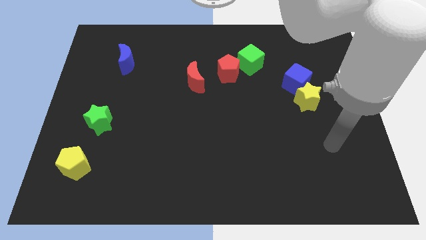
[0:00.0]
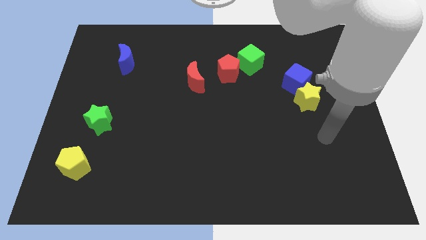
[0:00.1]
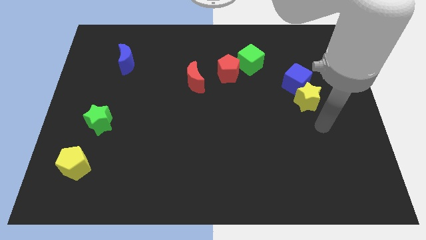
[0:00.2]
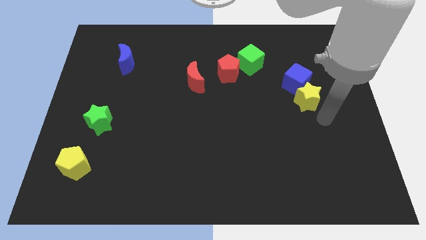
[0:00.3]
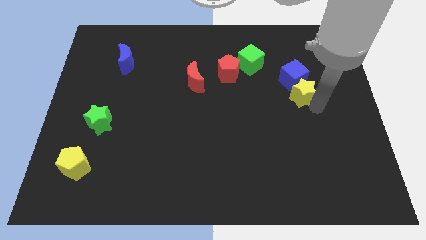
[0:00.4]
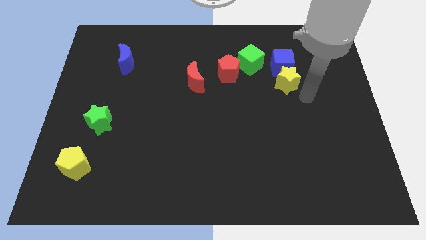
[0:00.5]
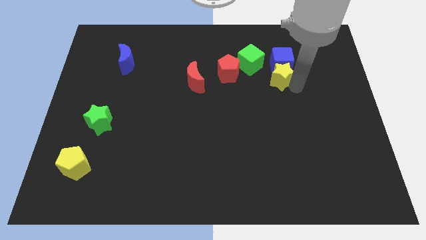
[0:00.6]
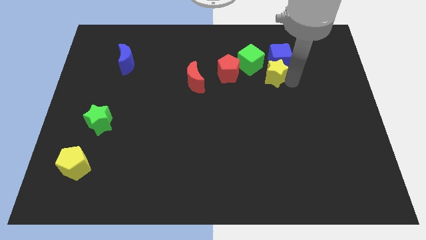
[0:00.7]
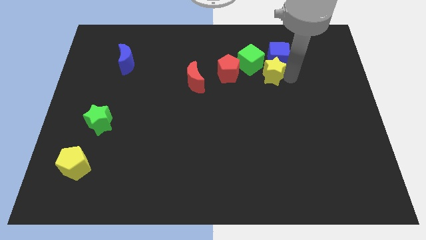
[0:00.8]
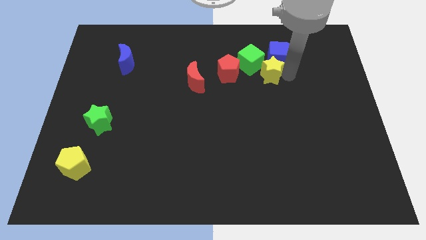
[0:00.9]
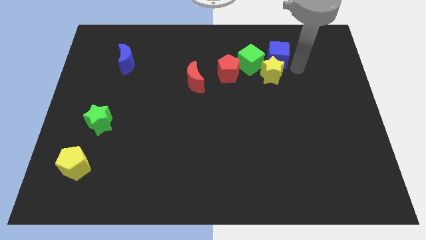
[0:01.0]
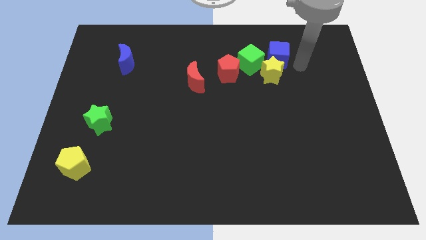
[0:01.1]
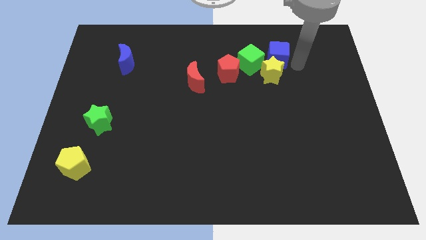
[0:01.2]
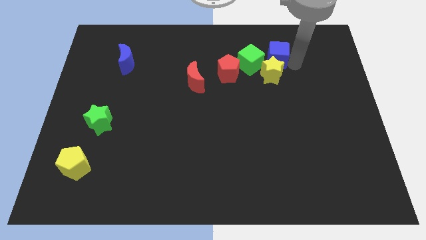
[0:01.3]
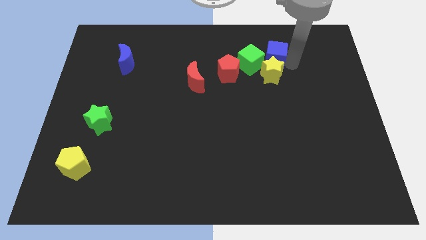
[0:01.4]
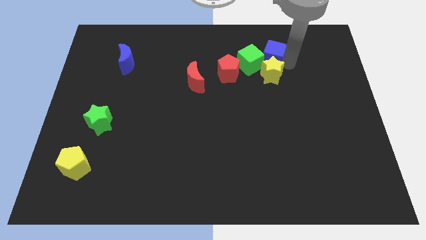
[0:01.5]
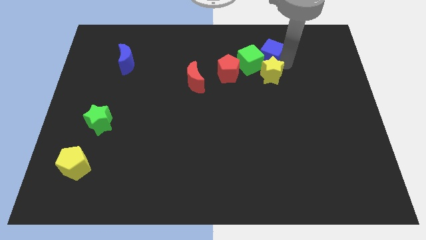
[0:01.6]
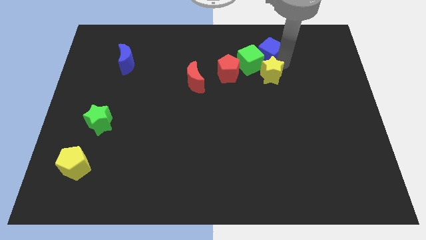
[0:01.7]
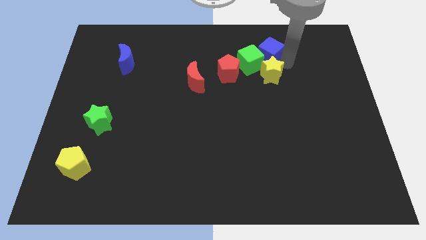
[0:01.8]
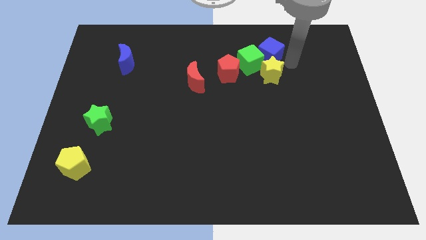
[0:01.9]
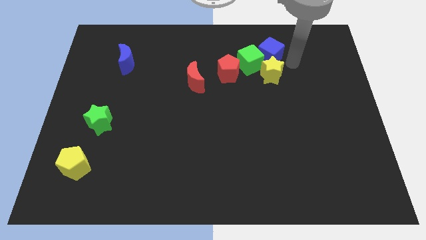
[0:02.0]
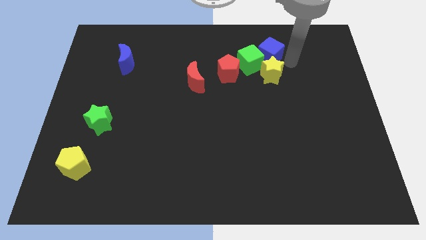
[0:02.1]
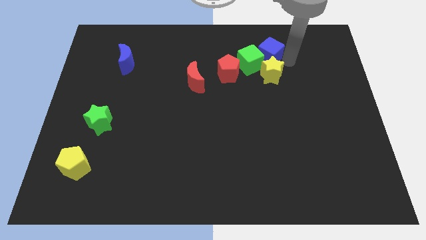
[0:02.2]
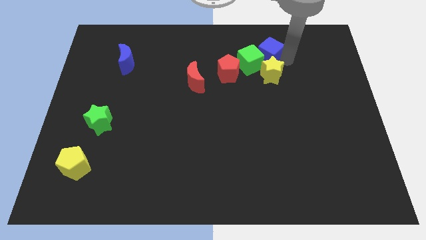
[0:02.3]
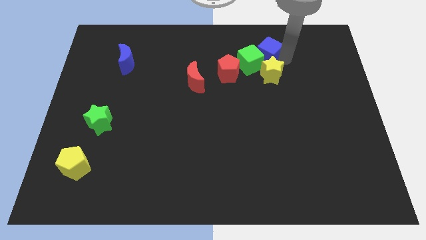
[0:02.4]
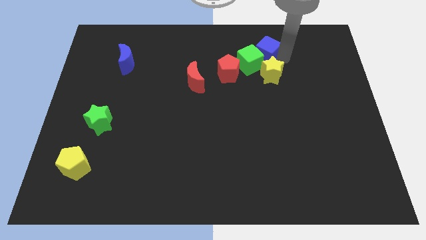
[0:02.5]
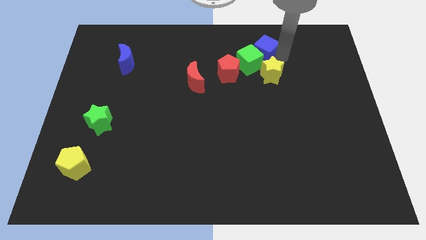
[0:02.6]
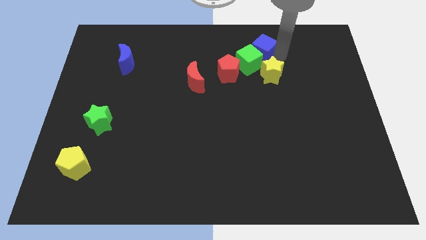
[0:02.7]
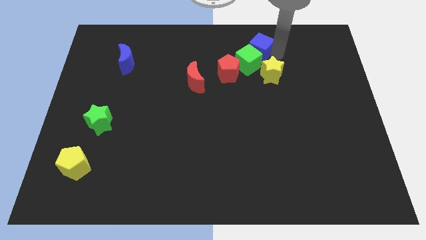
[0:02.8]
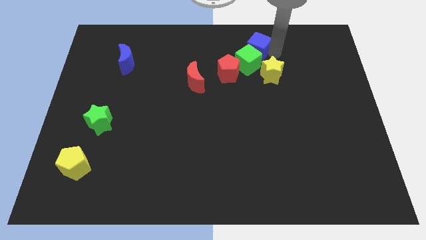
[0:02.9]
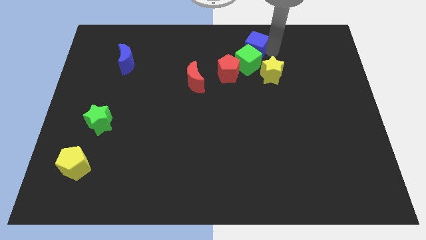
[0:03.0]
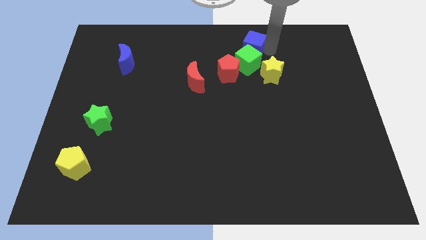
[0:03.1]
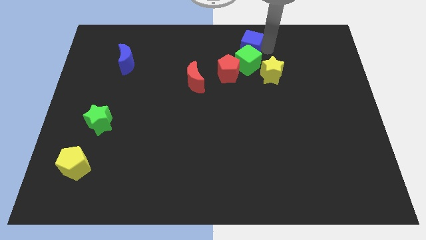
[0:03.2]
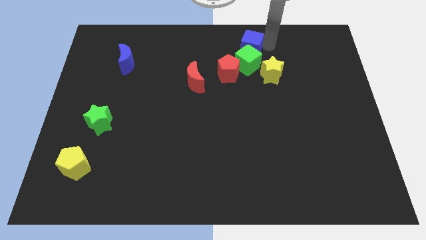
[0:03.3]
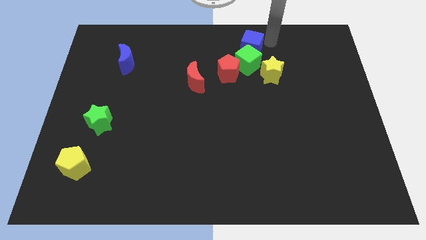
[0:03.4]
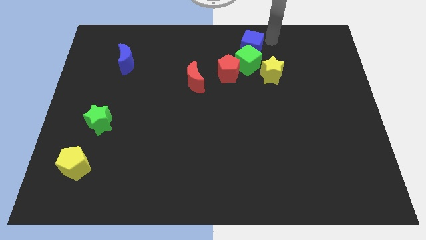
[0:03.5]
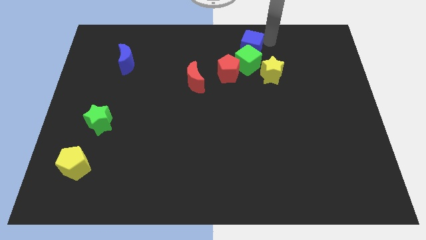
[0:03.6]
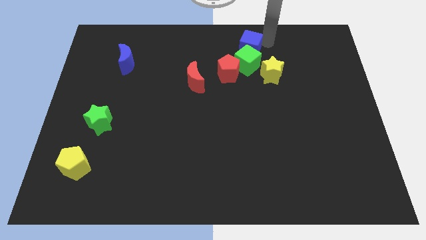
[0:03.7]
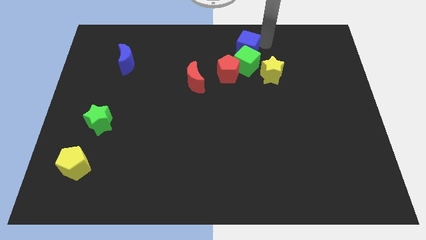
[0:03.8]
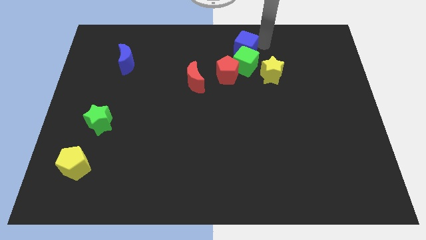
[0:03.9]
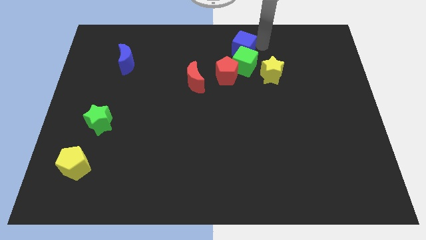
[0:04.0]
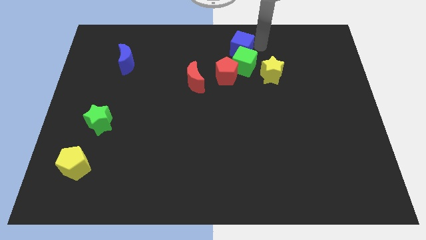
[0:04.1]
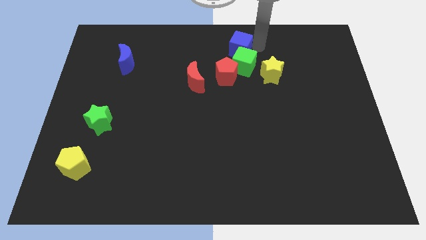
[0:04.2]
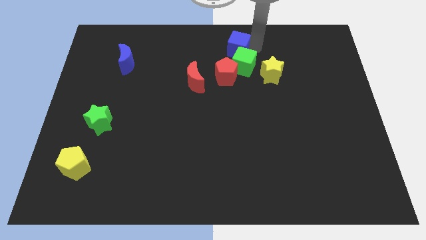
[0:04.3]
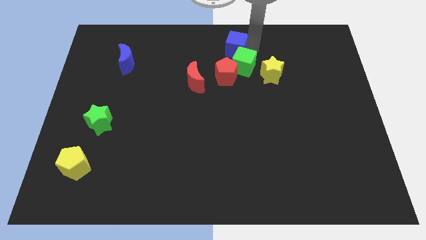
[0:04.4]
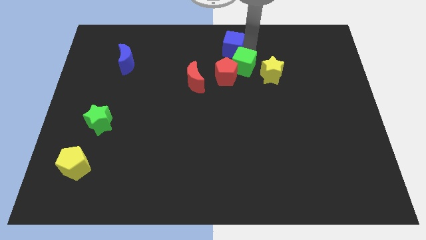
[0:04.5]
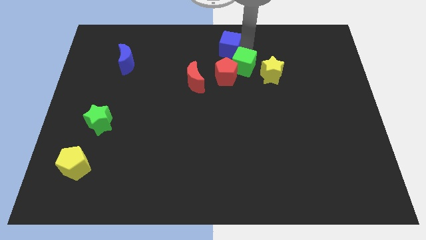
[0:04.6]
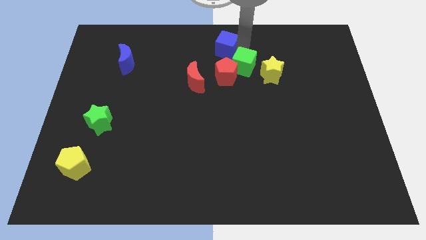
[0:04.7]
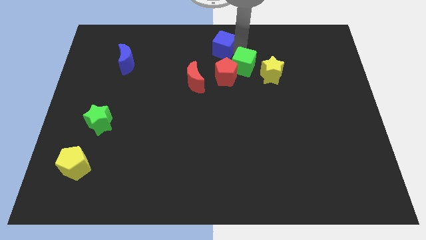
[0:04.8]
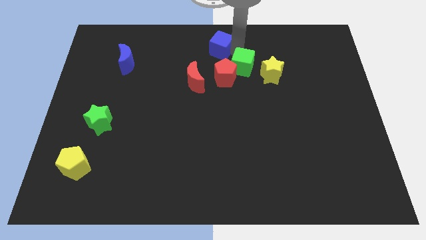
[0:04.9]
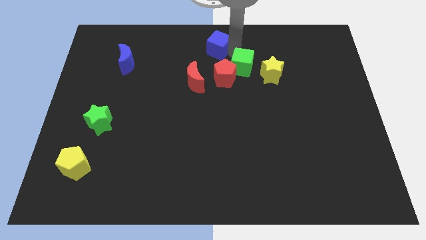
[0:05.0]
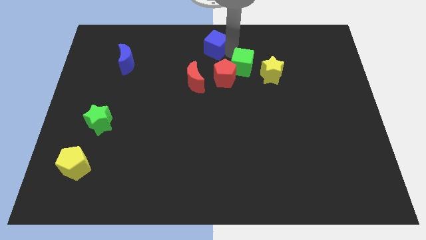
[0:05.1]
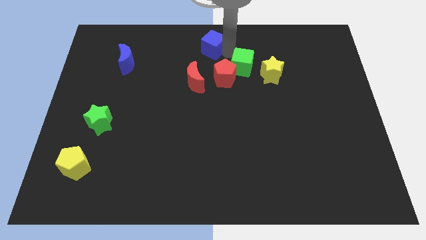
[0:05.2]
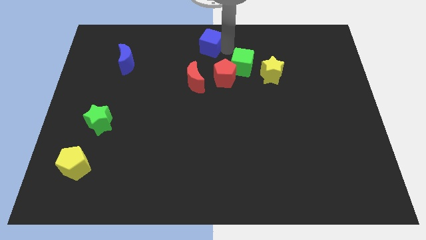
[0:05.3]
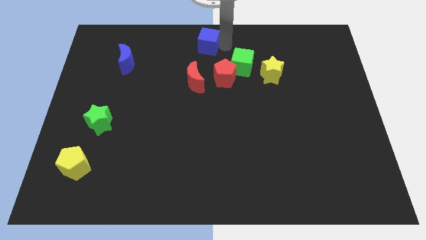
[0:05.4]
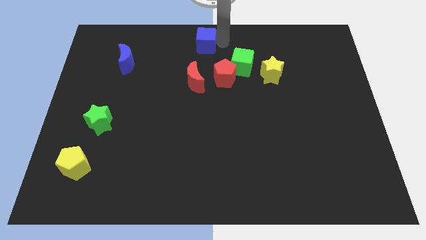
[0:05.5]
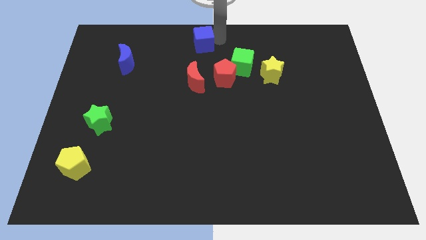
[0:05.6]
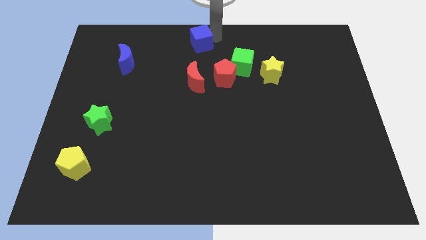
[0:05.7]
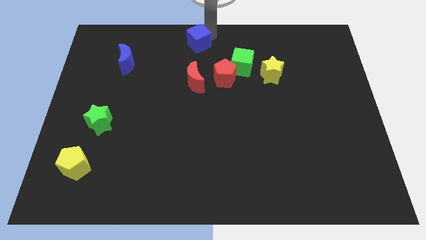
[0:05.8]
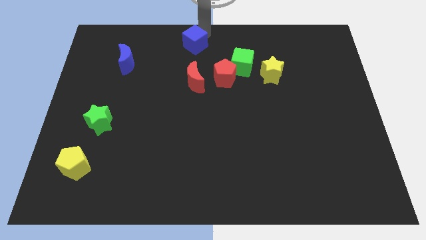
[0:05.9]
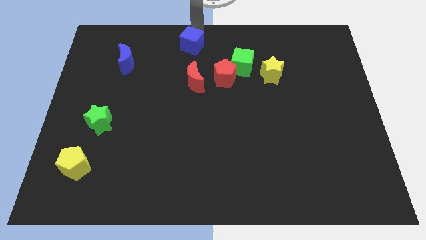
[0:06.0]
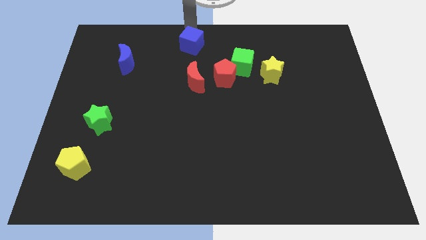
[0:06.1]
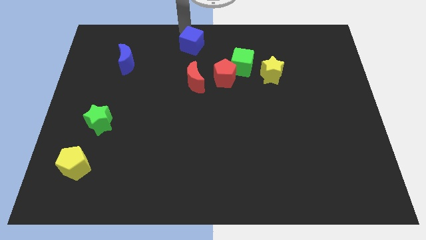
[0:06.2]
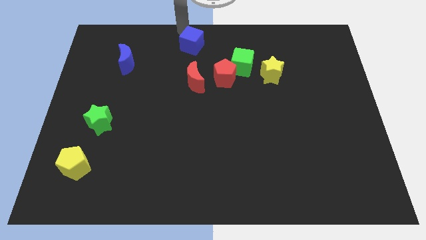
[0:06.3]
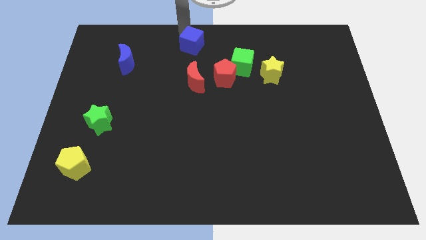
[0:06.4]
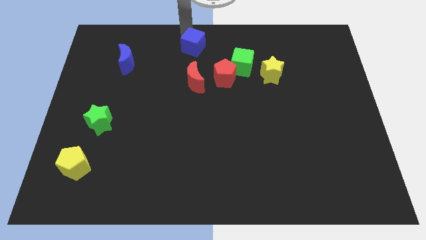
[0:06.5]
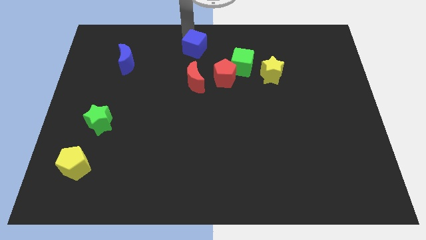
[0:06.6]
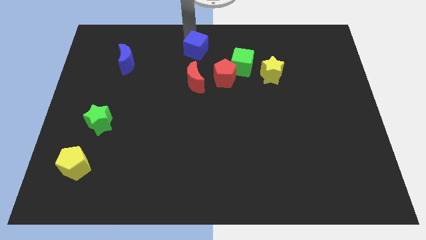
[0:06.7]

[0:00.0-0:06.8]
push the blue cube to the top left side of the red pentagon
